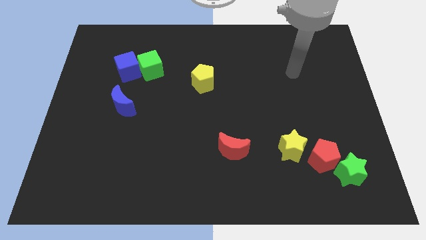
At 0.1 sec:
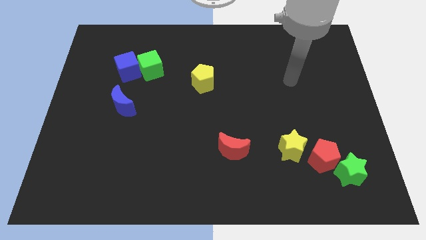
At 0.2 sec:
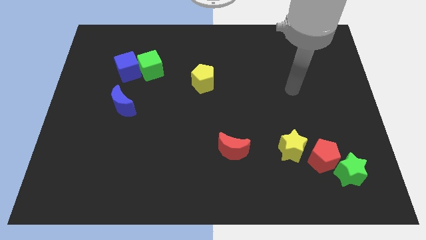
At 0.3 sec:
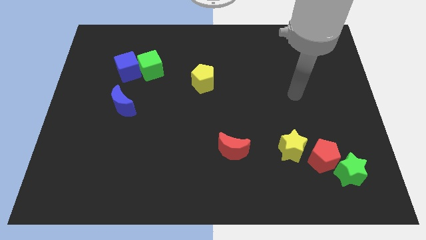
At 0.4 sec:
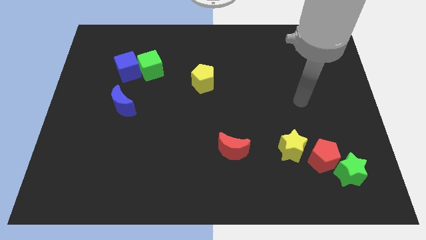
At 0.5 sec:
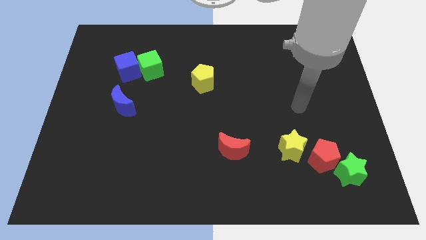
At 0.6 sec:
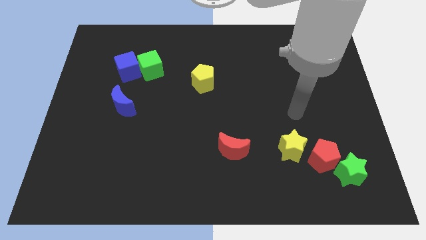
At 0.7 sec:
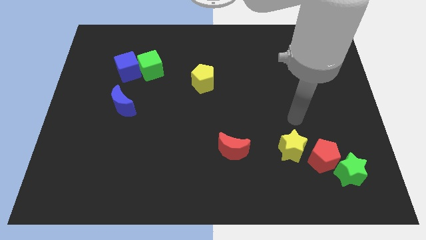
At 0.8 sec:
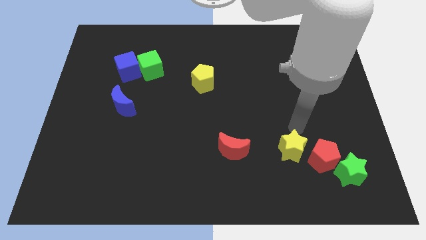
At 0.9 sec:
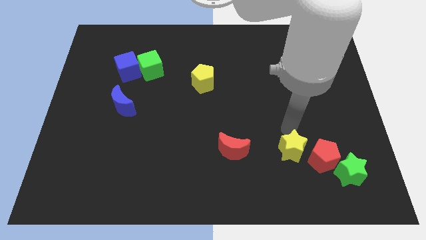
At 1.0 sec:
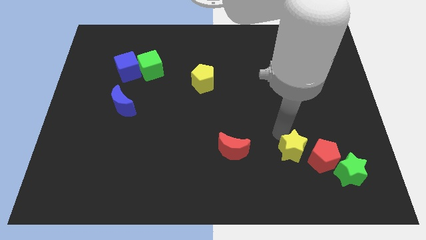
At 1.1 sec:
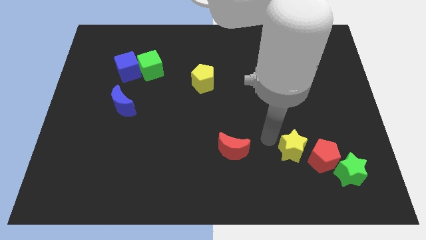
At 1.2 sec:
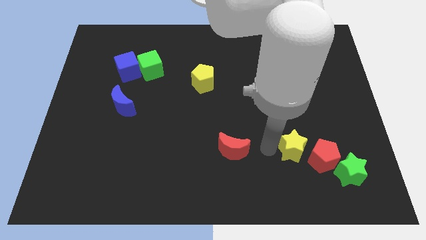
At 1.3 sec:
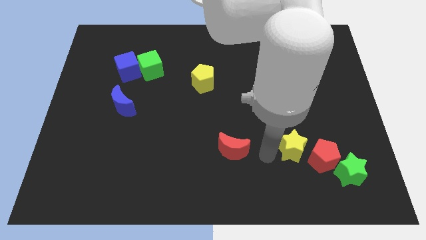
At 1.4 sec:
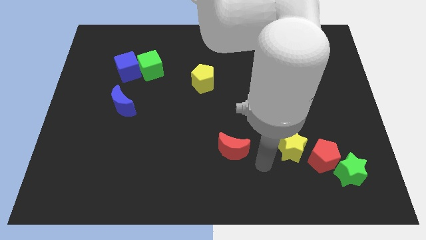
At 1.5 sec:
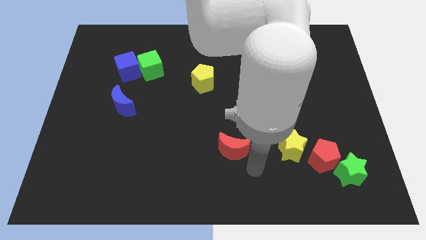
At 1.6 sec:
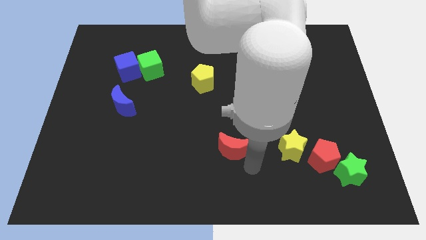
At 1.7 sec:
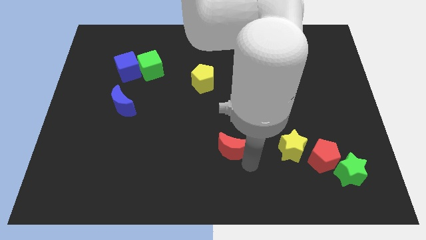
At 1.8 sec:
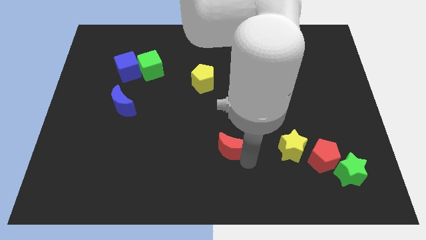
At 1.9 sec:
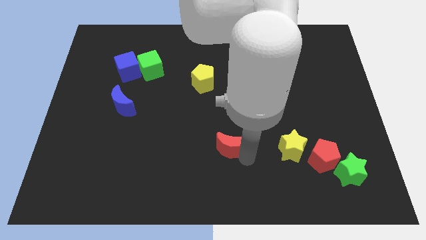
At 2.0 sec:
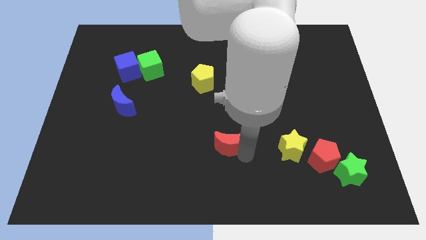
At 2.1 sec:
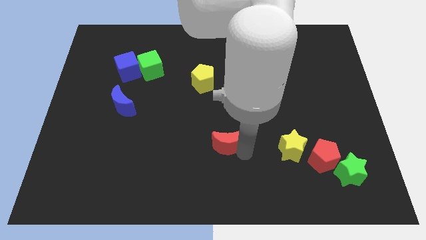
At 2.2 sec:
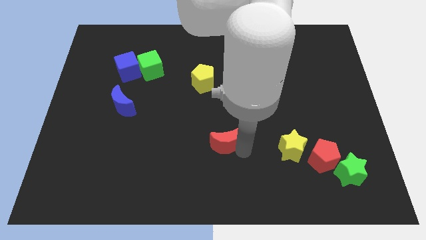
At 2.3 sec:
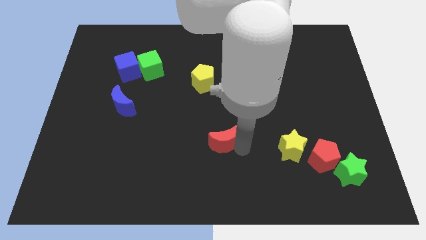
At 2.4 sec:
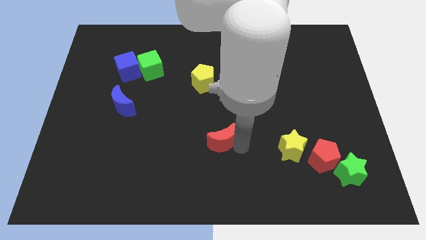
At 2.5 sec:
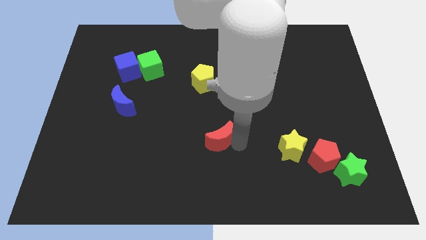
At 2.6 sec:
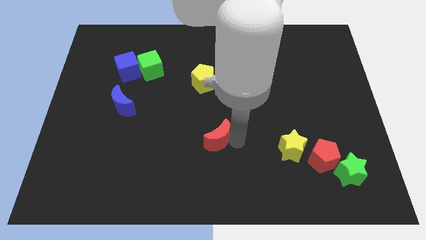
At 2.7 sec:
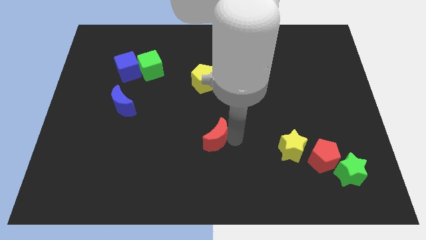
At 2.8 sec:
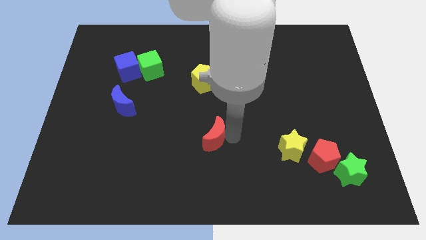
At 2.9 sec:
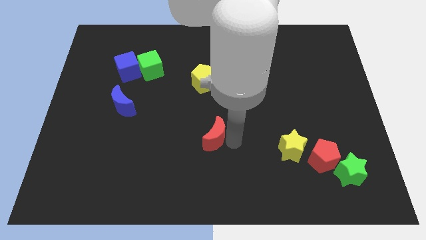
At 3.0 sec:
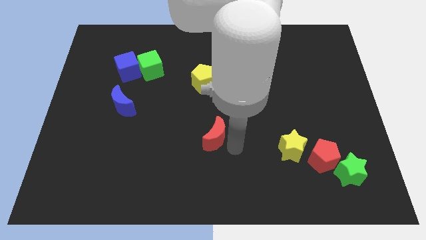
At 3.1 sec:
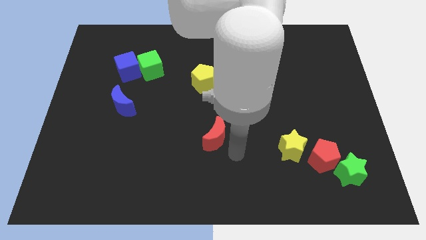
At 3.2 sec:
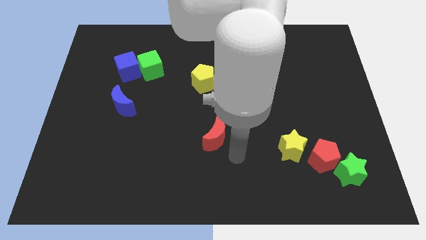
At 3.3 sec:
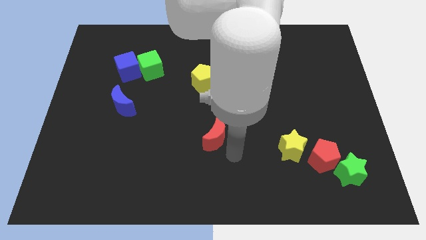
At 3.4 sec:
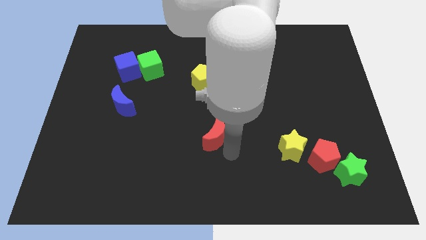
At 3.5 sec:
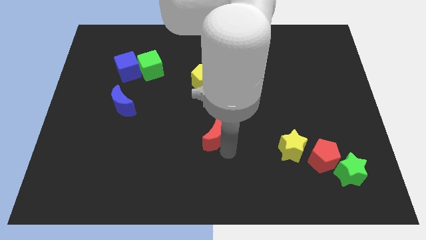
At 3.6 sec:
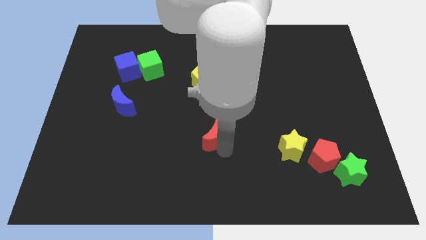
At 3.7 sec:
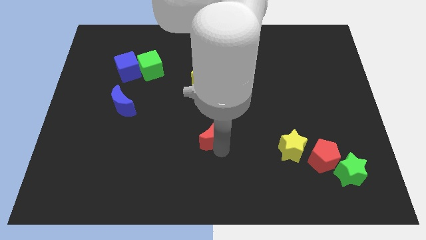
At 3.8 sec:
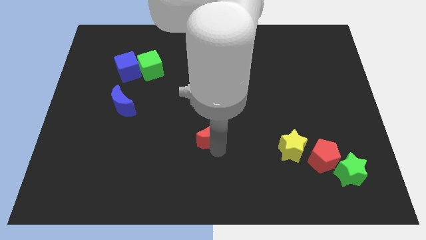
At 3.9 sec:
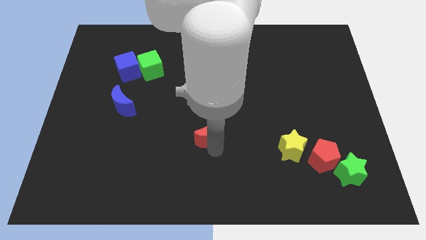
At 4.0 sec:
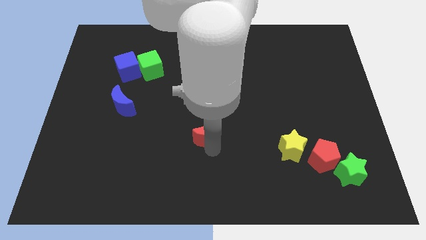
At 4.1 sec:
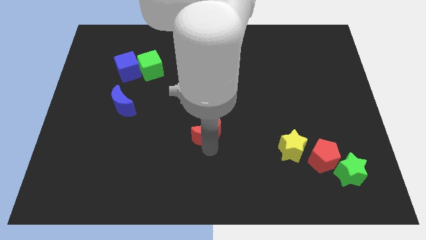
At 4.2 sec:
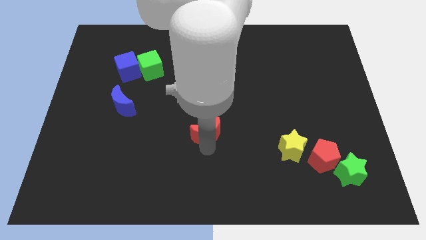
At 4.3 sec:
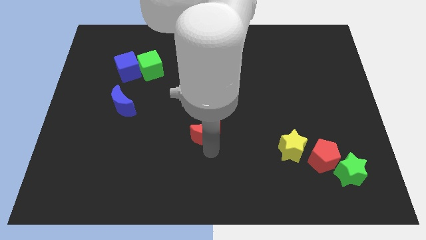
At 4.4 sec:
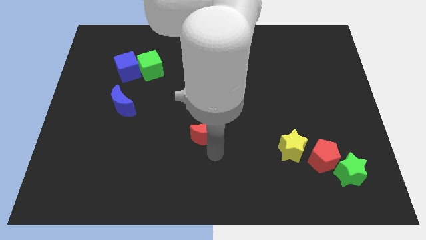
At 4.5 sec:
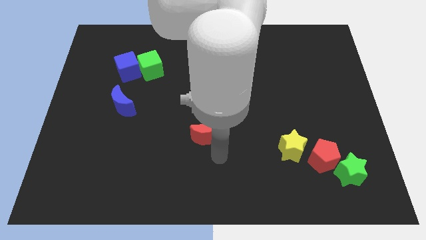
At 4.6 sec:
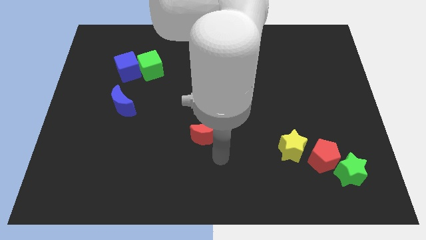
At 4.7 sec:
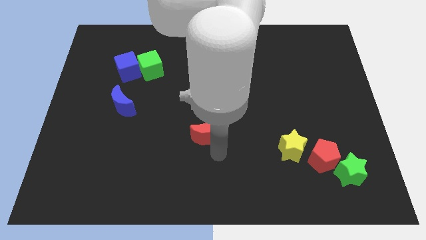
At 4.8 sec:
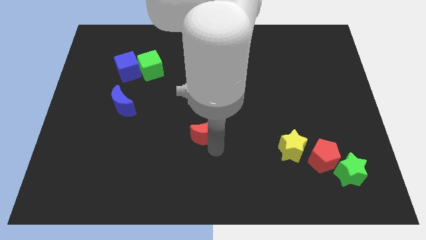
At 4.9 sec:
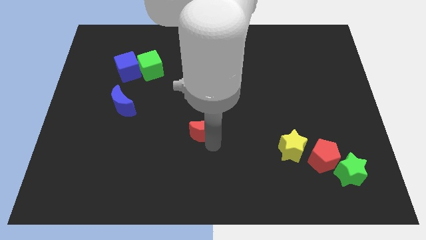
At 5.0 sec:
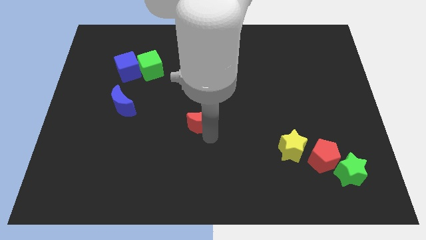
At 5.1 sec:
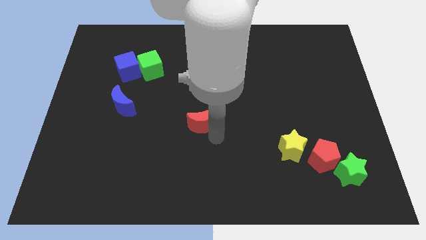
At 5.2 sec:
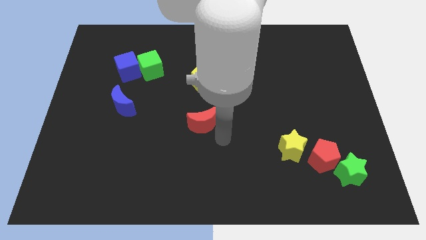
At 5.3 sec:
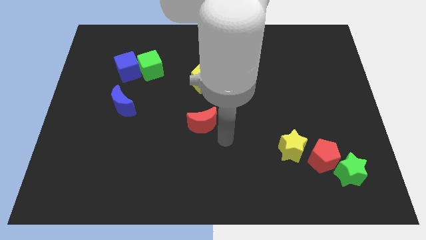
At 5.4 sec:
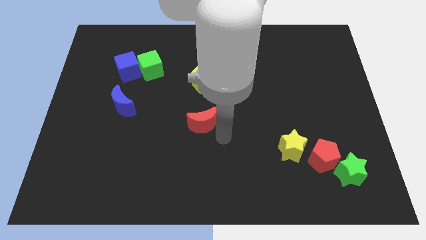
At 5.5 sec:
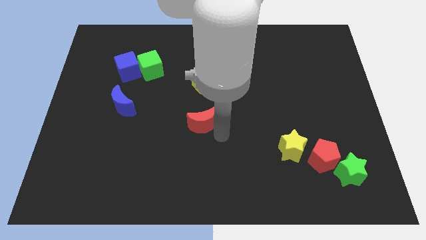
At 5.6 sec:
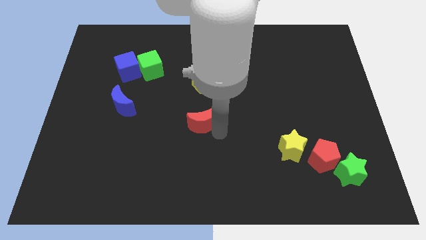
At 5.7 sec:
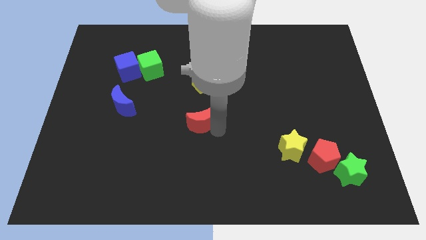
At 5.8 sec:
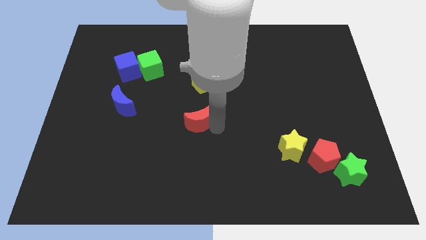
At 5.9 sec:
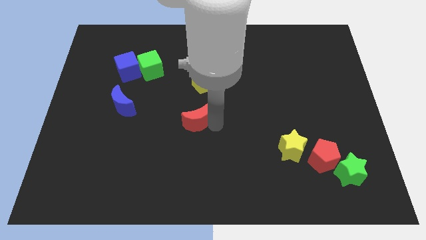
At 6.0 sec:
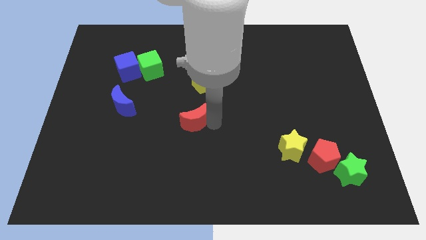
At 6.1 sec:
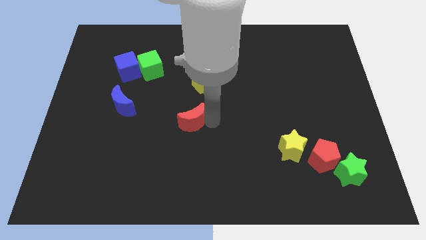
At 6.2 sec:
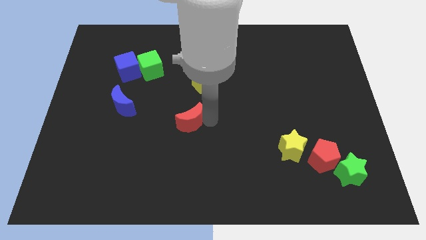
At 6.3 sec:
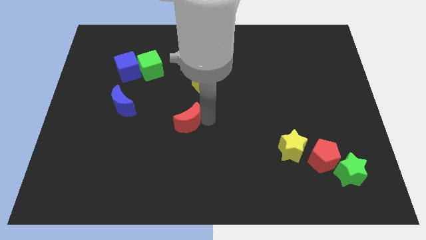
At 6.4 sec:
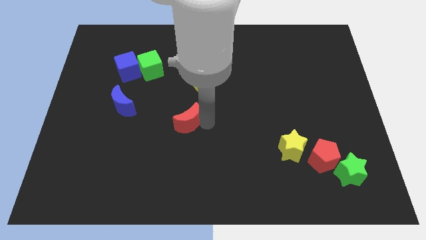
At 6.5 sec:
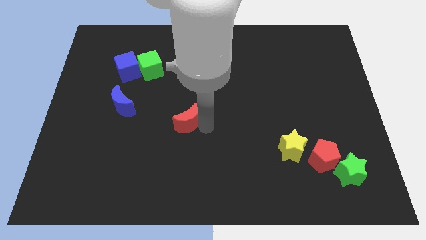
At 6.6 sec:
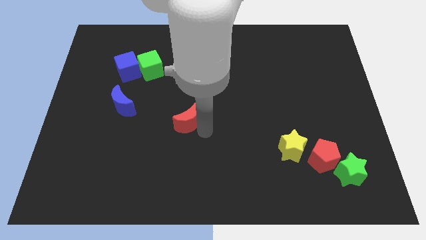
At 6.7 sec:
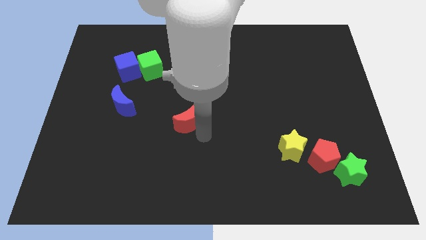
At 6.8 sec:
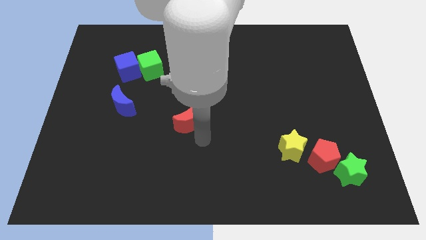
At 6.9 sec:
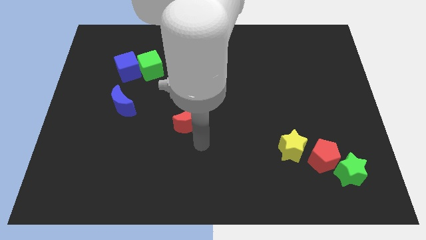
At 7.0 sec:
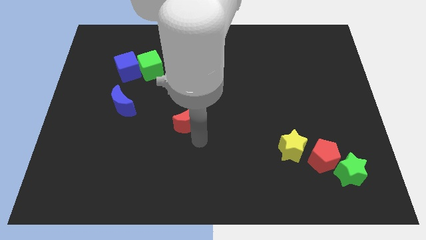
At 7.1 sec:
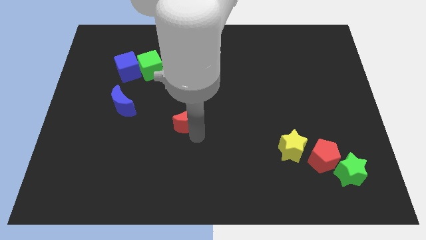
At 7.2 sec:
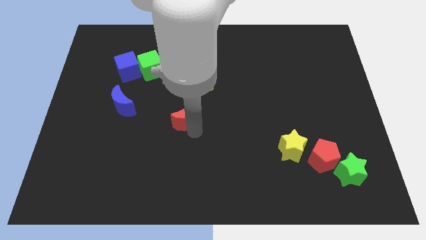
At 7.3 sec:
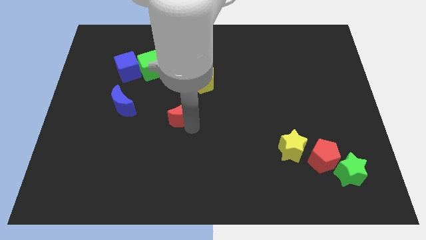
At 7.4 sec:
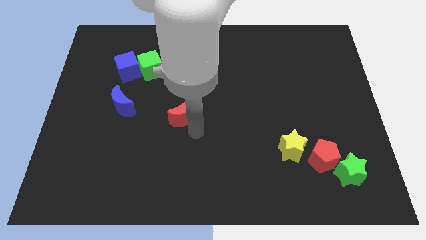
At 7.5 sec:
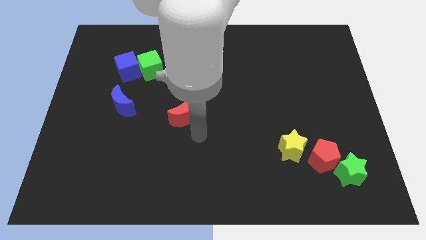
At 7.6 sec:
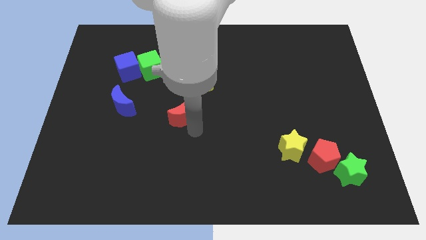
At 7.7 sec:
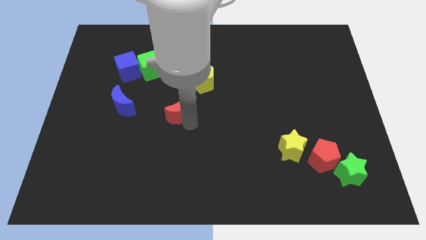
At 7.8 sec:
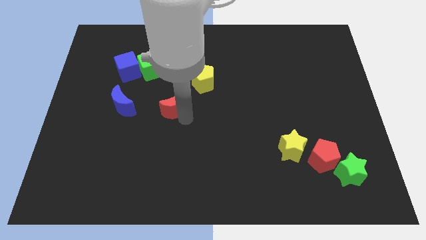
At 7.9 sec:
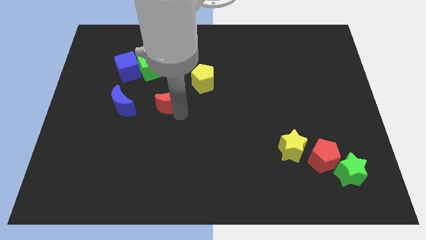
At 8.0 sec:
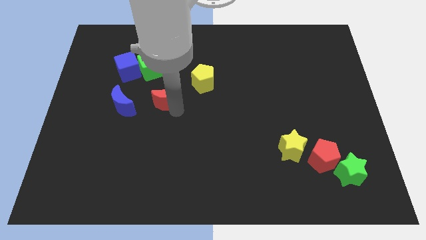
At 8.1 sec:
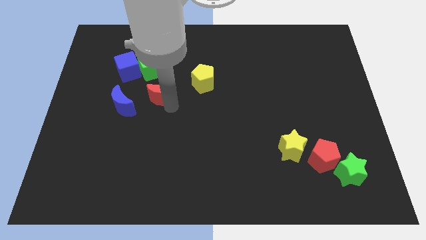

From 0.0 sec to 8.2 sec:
move the red moon to the left of the yellow pentagon
